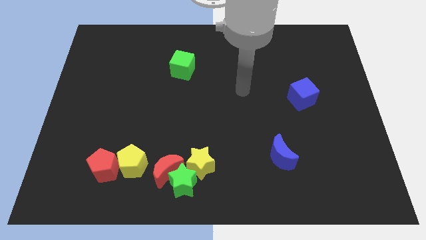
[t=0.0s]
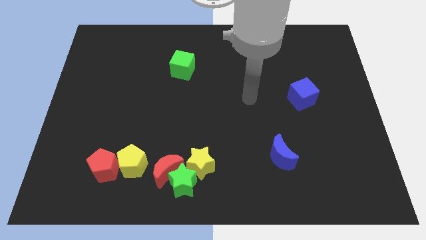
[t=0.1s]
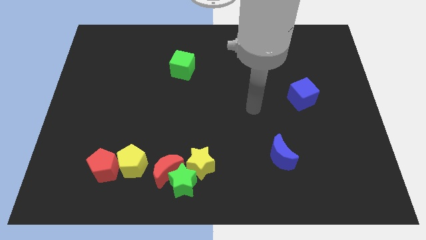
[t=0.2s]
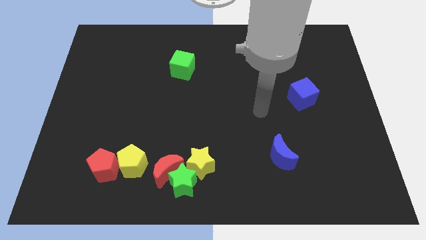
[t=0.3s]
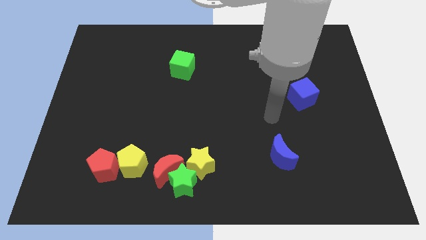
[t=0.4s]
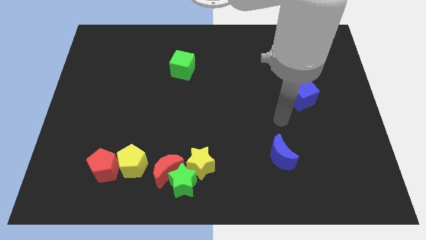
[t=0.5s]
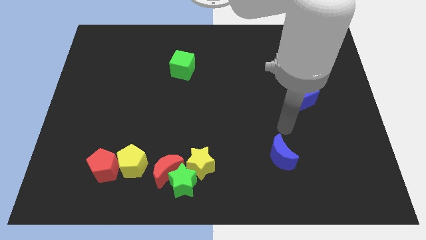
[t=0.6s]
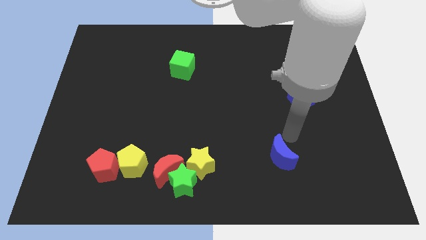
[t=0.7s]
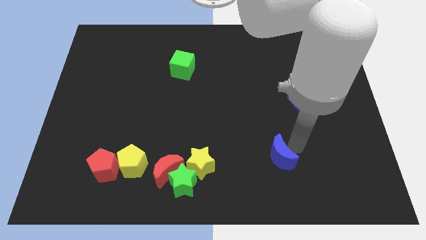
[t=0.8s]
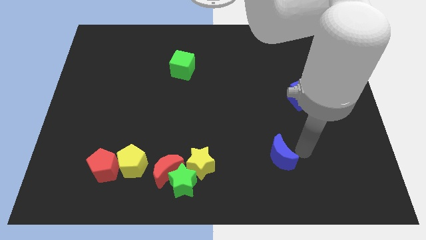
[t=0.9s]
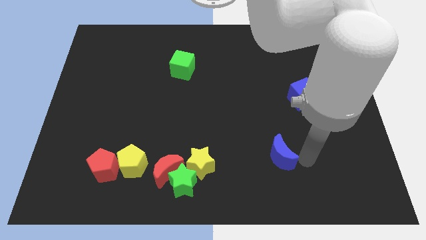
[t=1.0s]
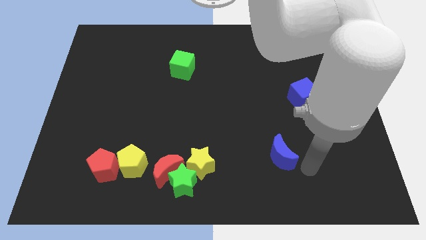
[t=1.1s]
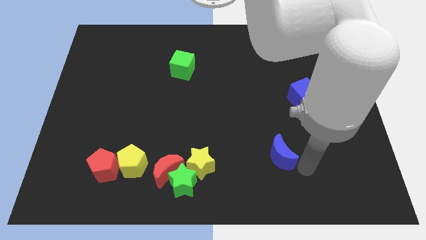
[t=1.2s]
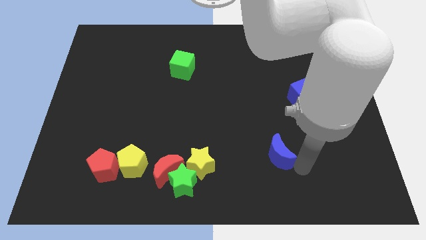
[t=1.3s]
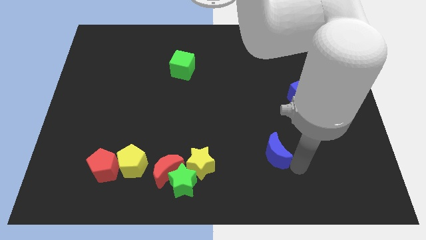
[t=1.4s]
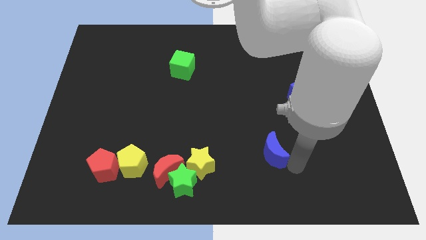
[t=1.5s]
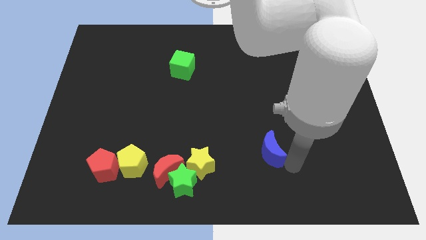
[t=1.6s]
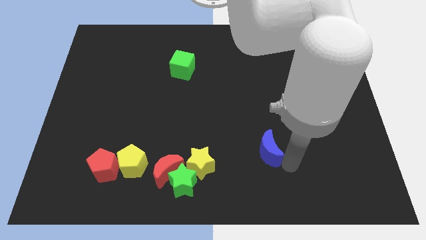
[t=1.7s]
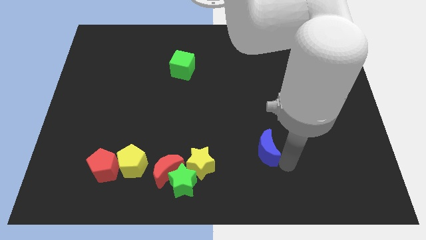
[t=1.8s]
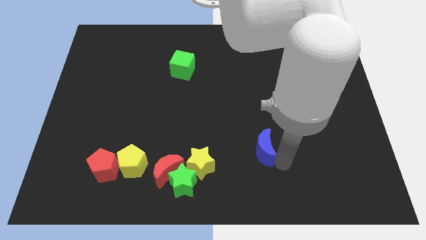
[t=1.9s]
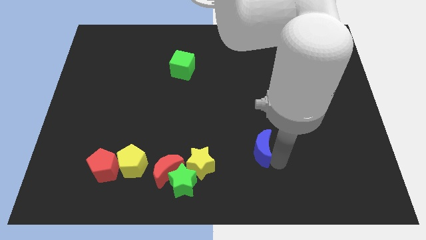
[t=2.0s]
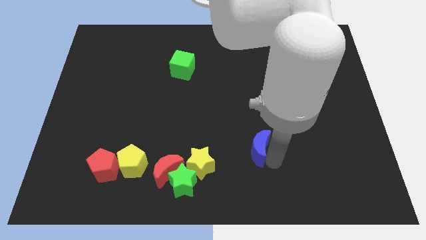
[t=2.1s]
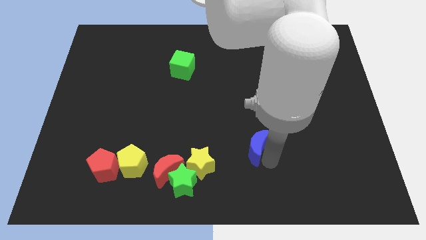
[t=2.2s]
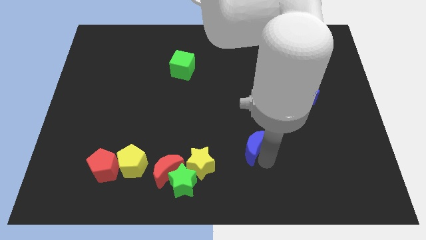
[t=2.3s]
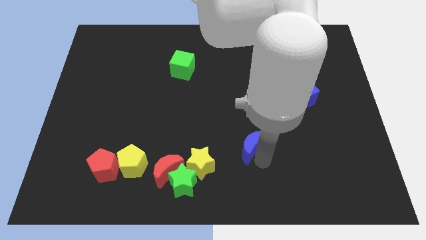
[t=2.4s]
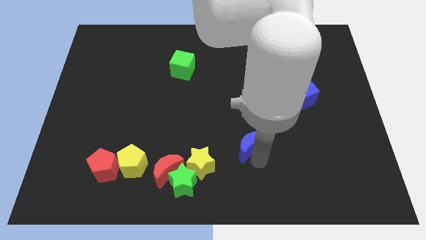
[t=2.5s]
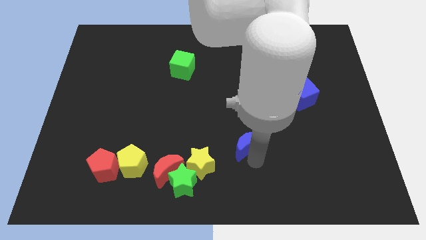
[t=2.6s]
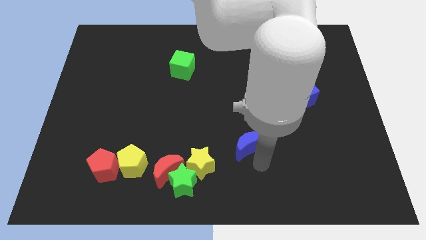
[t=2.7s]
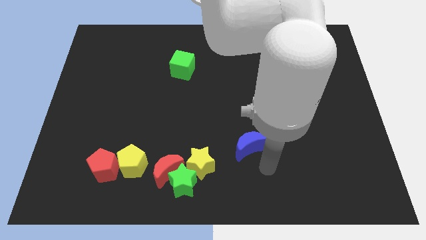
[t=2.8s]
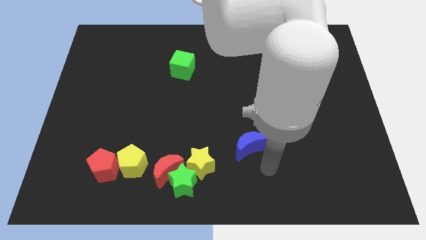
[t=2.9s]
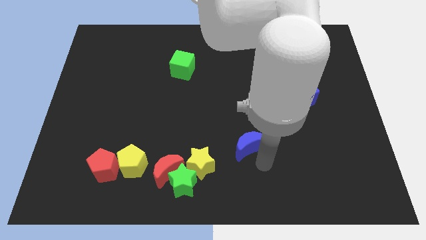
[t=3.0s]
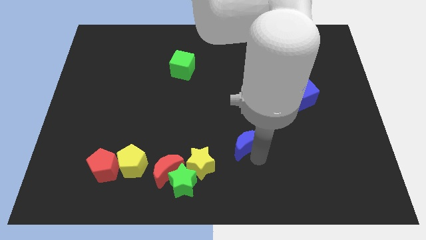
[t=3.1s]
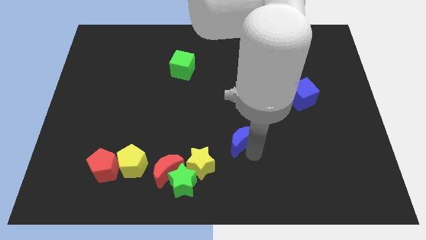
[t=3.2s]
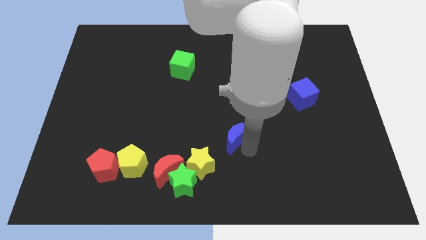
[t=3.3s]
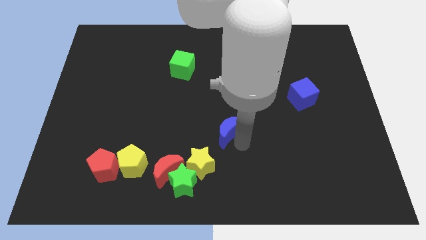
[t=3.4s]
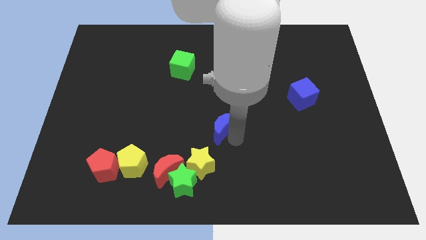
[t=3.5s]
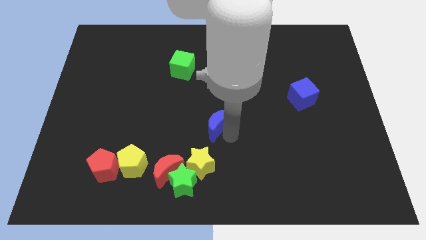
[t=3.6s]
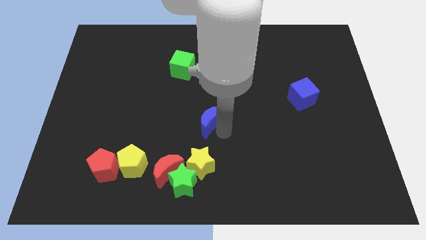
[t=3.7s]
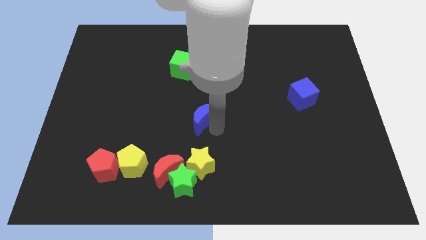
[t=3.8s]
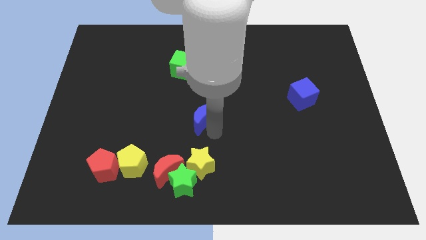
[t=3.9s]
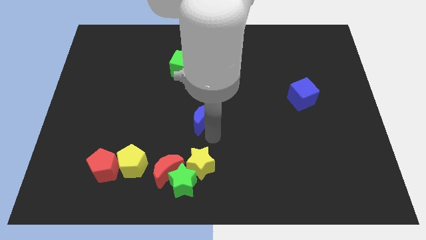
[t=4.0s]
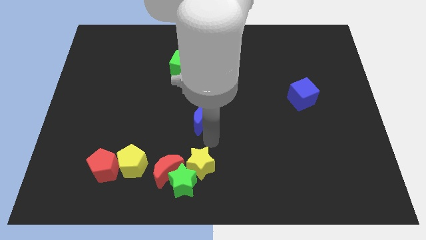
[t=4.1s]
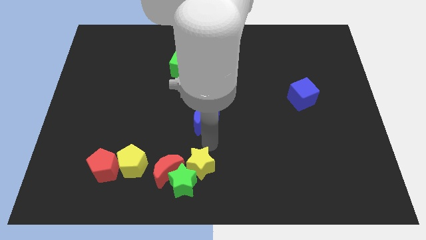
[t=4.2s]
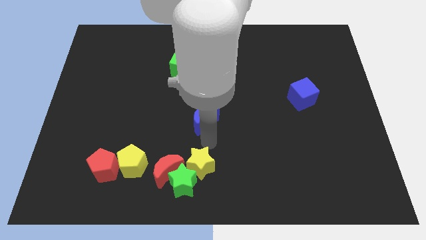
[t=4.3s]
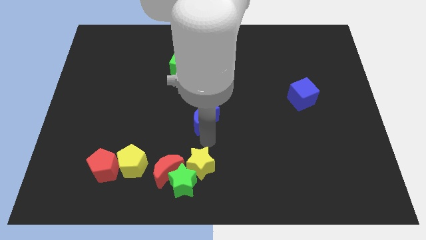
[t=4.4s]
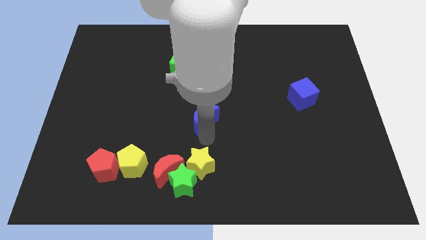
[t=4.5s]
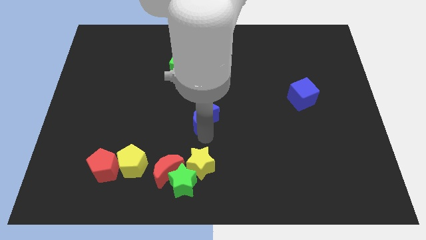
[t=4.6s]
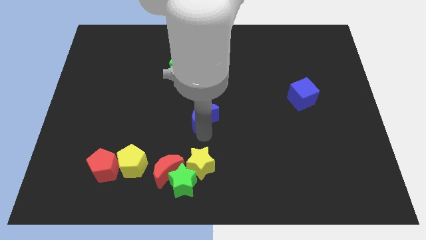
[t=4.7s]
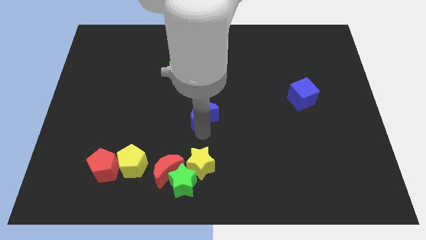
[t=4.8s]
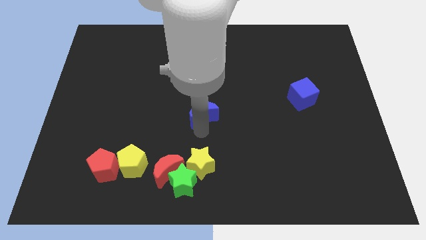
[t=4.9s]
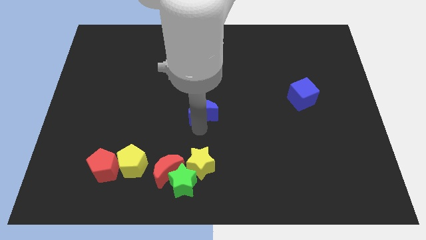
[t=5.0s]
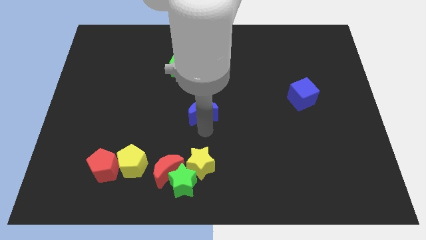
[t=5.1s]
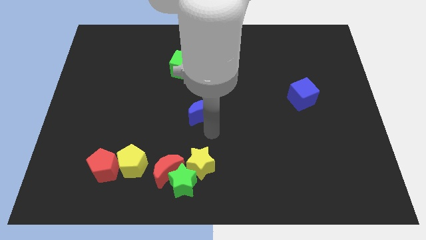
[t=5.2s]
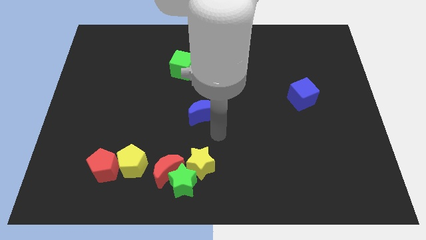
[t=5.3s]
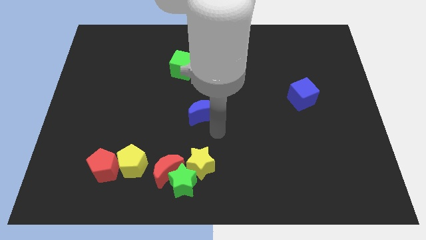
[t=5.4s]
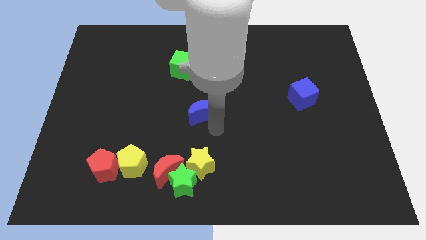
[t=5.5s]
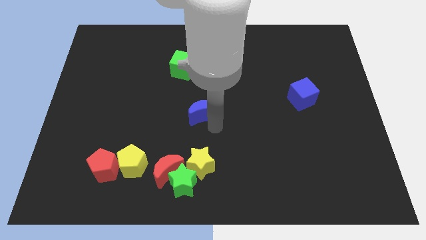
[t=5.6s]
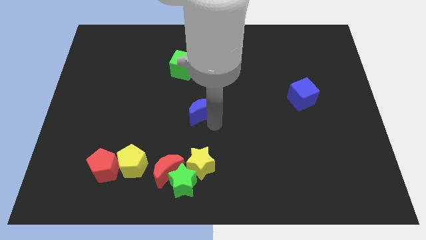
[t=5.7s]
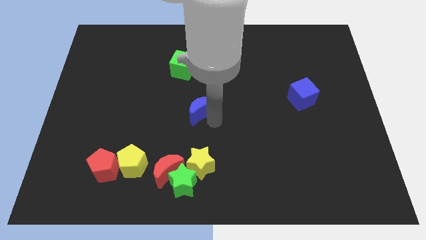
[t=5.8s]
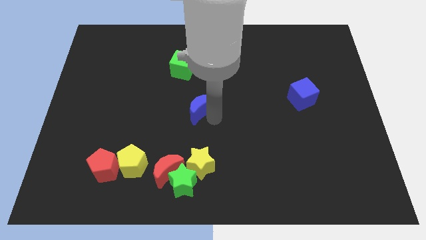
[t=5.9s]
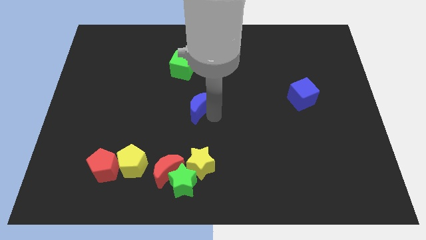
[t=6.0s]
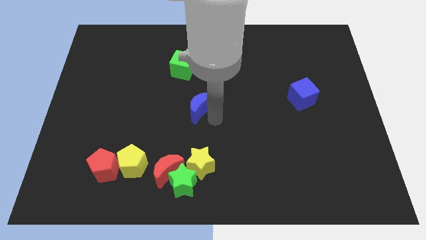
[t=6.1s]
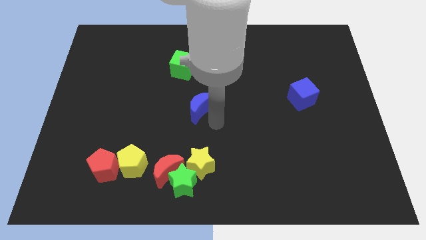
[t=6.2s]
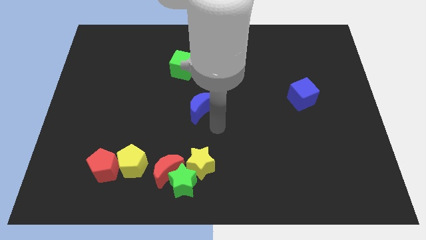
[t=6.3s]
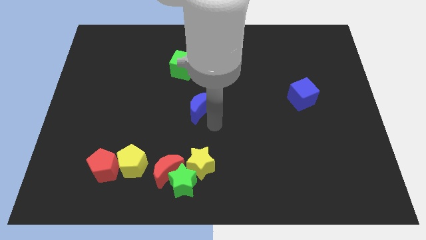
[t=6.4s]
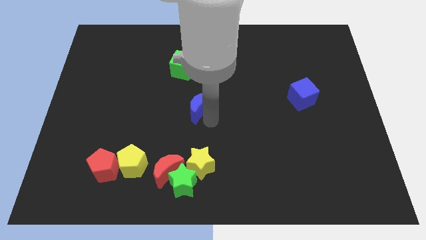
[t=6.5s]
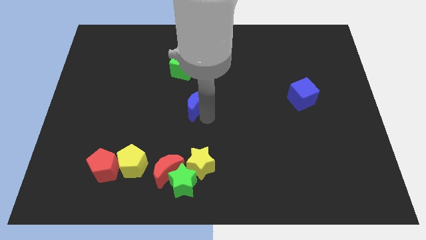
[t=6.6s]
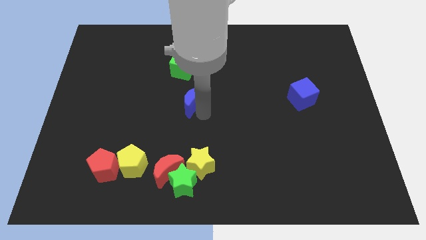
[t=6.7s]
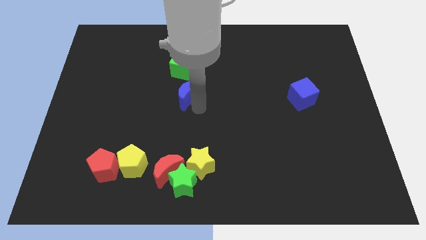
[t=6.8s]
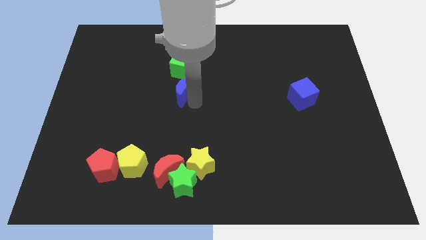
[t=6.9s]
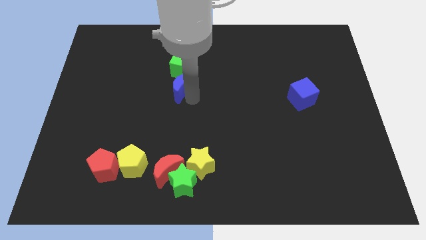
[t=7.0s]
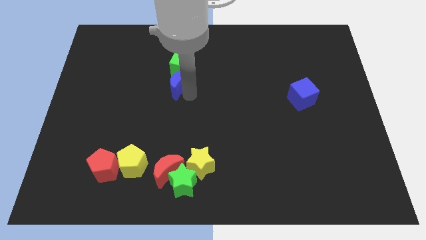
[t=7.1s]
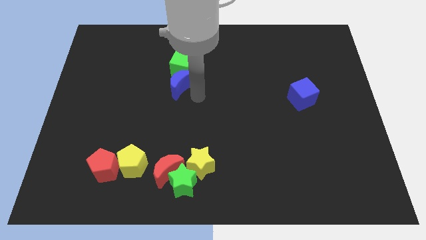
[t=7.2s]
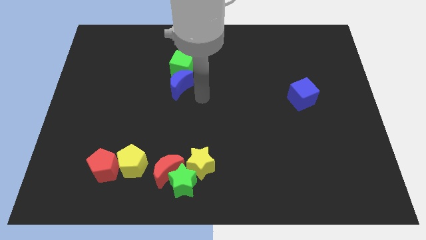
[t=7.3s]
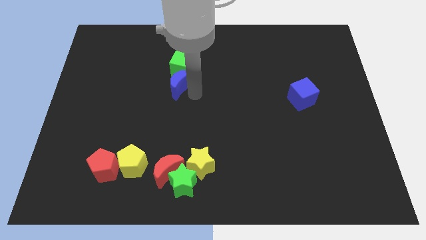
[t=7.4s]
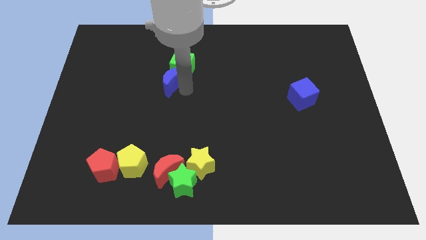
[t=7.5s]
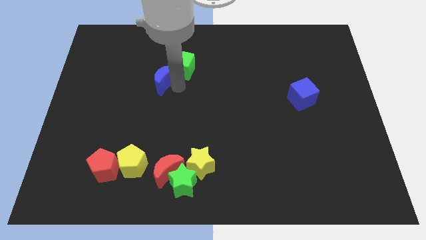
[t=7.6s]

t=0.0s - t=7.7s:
slide the blue moon to the left of the green cube

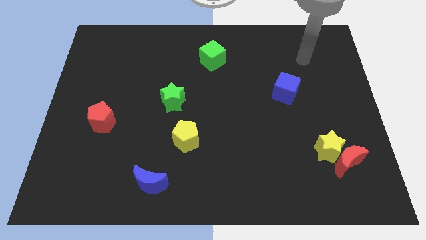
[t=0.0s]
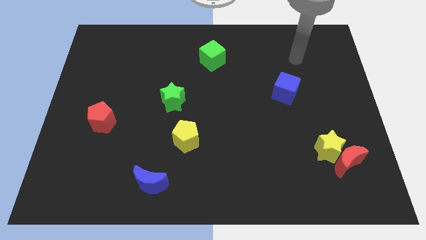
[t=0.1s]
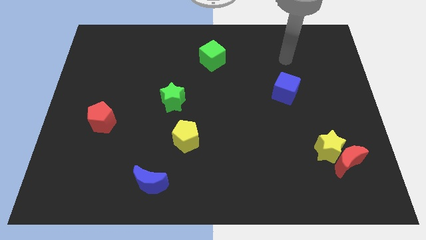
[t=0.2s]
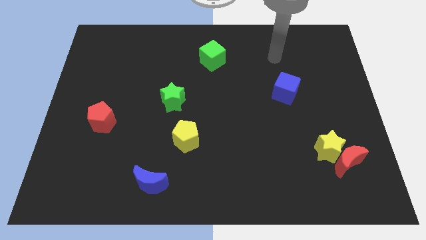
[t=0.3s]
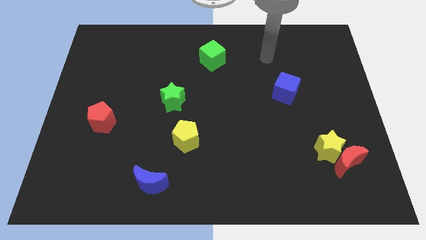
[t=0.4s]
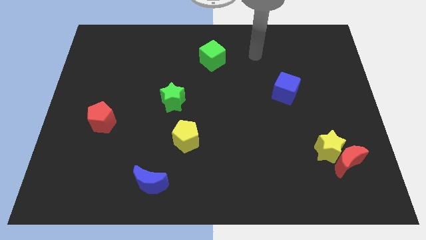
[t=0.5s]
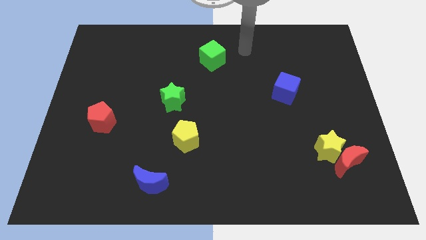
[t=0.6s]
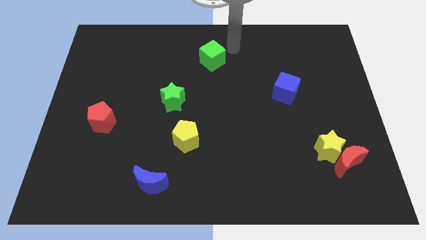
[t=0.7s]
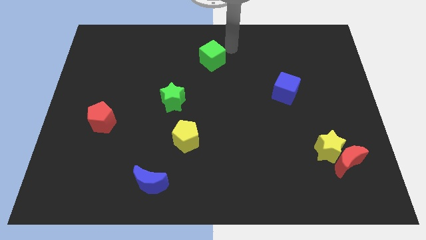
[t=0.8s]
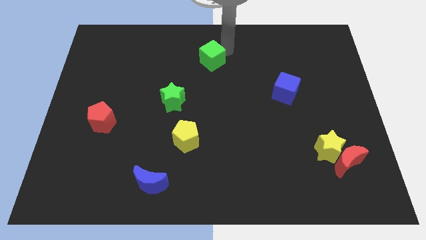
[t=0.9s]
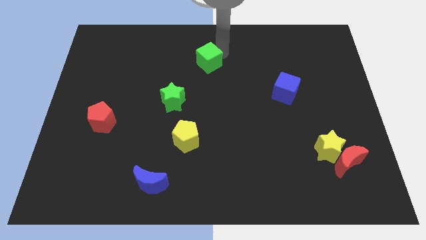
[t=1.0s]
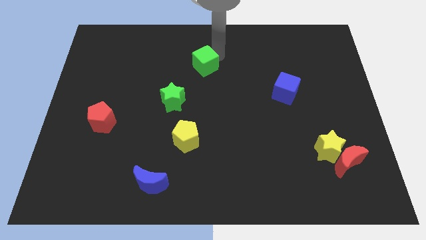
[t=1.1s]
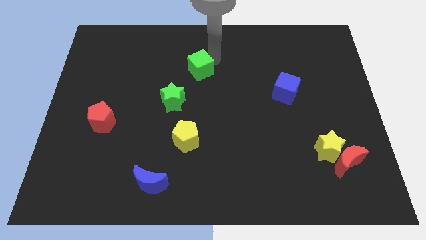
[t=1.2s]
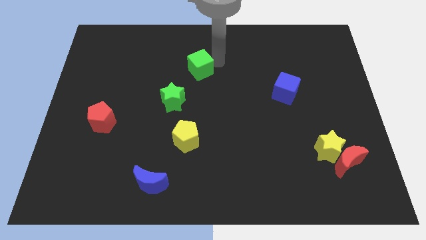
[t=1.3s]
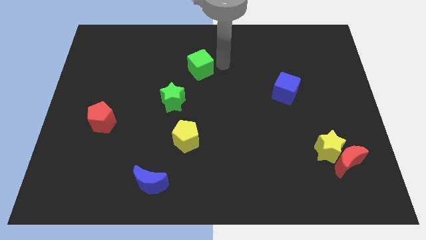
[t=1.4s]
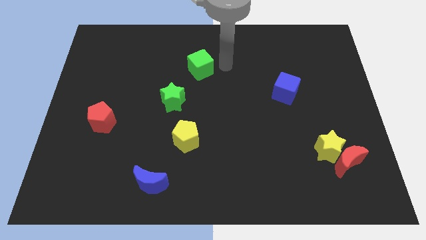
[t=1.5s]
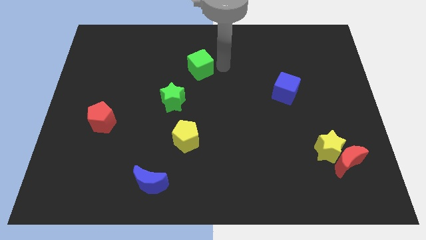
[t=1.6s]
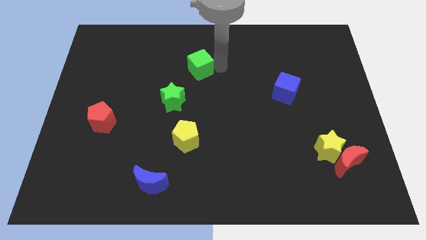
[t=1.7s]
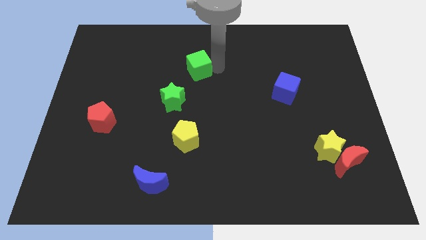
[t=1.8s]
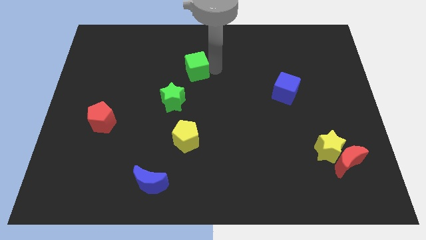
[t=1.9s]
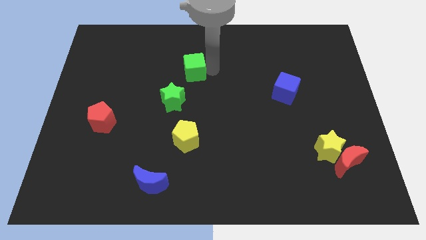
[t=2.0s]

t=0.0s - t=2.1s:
slide the green cube to the top side of the green star
